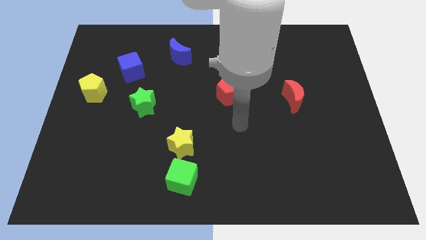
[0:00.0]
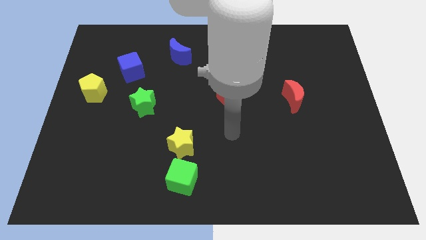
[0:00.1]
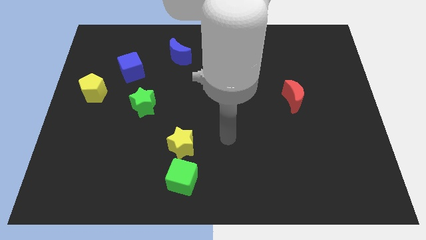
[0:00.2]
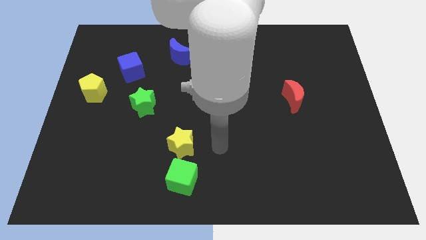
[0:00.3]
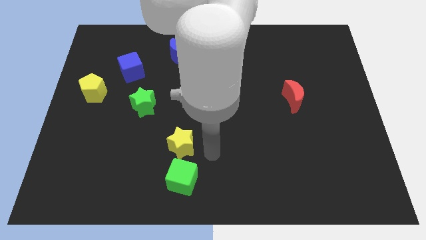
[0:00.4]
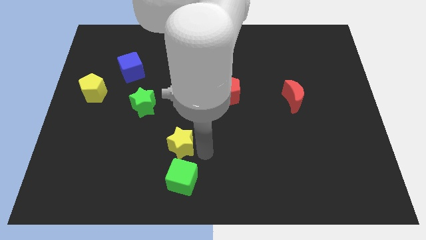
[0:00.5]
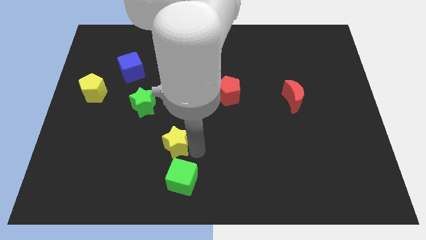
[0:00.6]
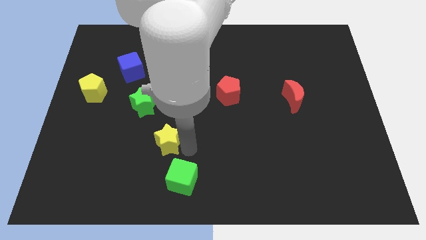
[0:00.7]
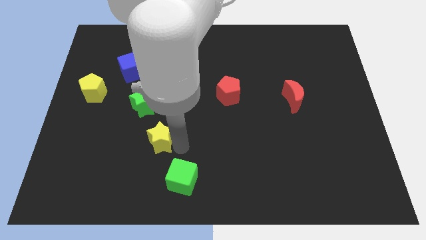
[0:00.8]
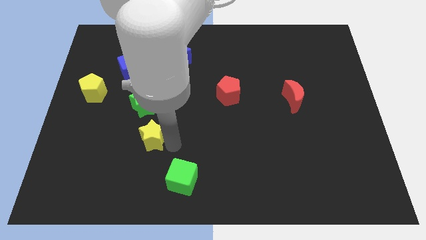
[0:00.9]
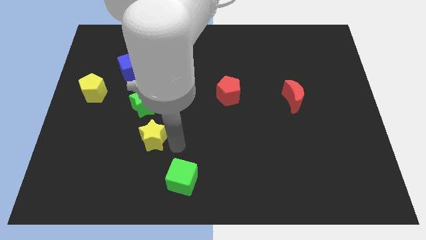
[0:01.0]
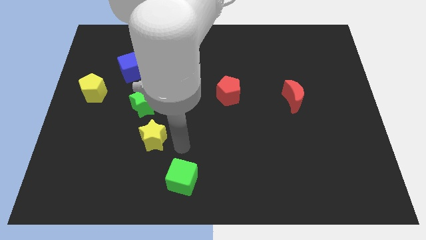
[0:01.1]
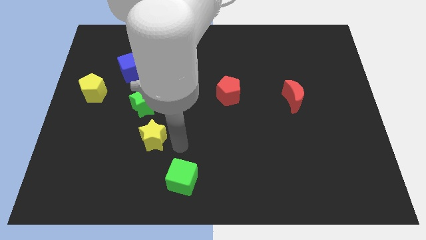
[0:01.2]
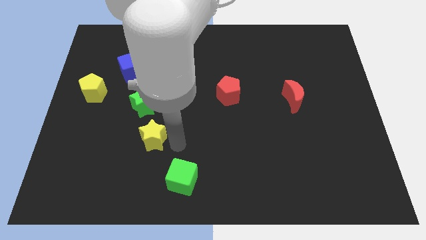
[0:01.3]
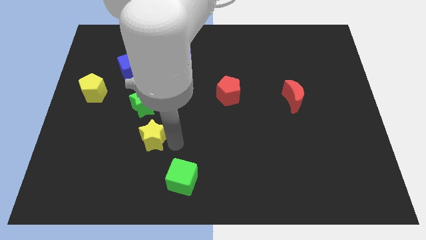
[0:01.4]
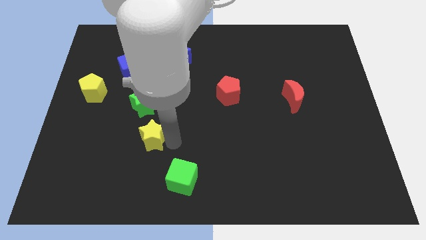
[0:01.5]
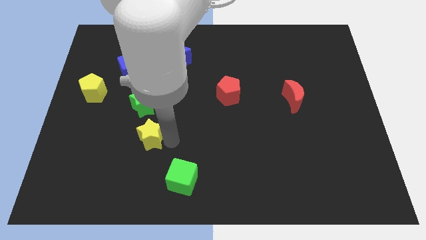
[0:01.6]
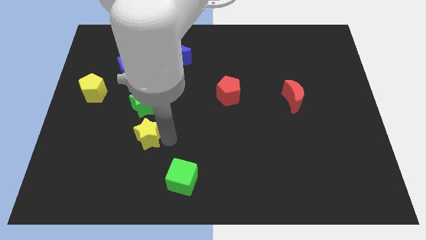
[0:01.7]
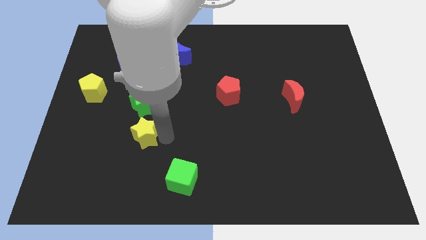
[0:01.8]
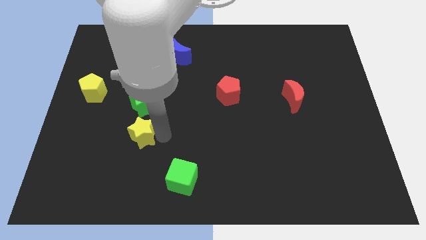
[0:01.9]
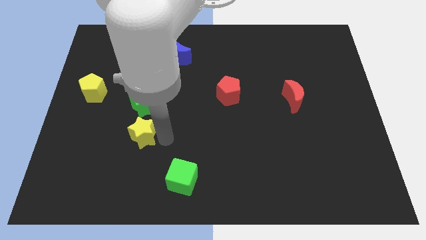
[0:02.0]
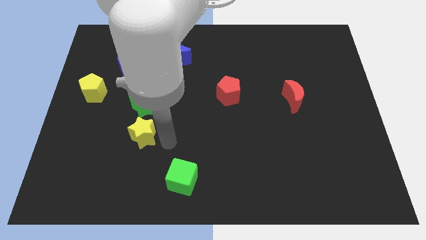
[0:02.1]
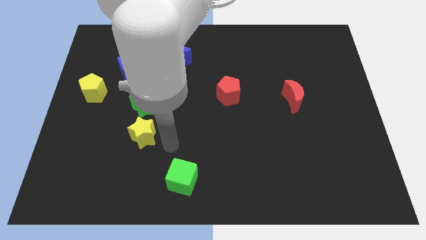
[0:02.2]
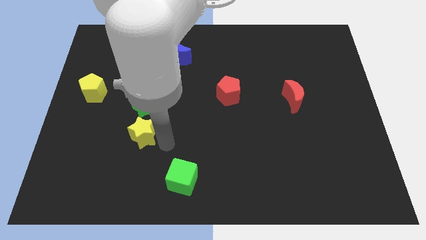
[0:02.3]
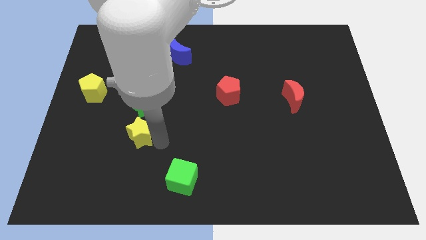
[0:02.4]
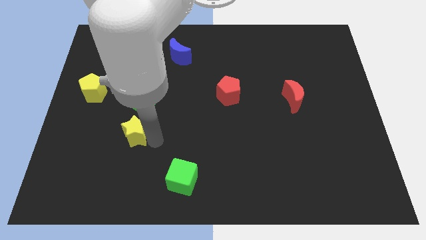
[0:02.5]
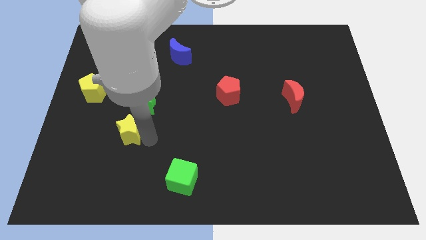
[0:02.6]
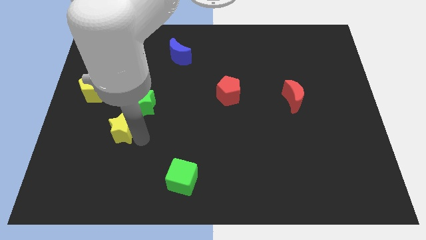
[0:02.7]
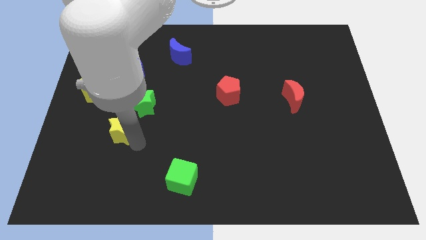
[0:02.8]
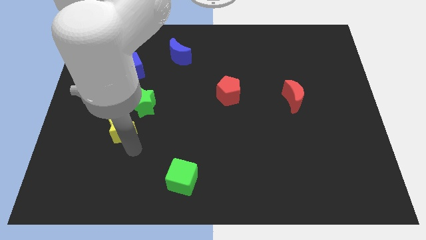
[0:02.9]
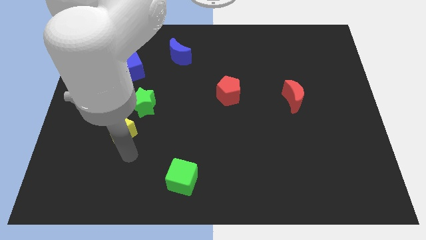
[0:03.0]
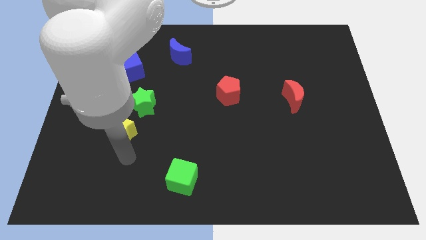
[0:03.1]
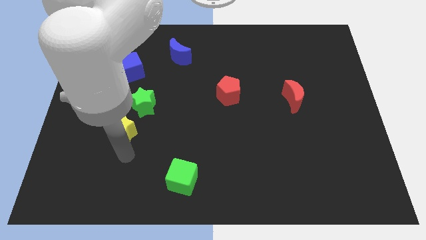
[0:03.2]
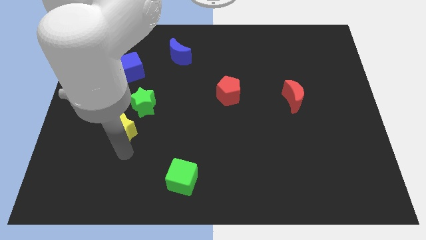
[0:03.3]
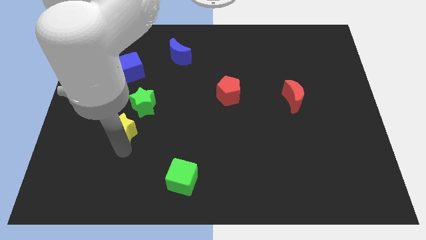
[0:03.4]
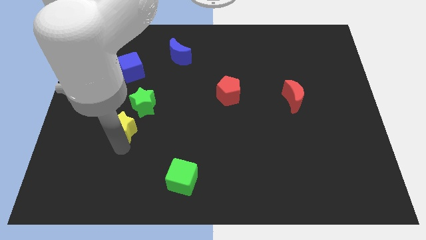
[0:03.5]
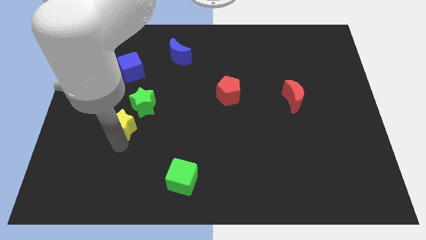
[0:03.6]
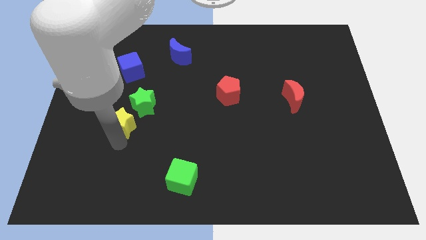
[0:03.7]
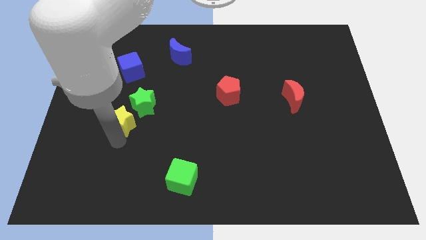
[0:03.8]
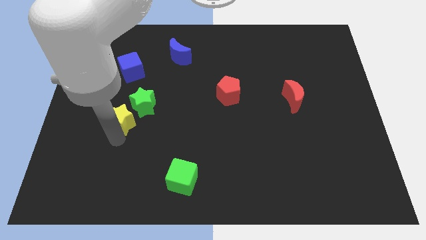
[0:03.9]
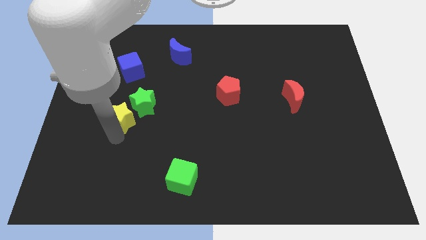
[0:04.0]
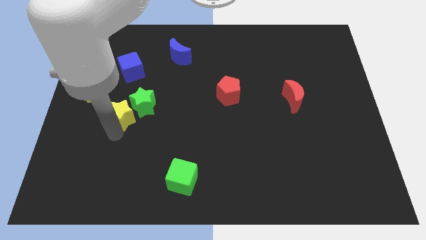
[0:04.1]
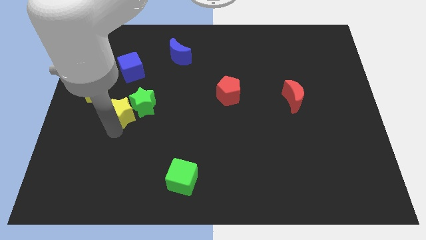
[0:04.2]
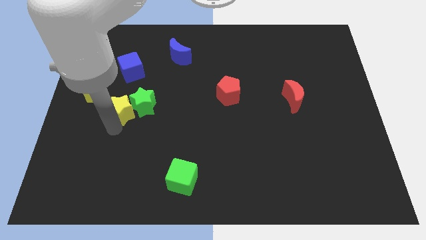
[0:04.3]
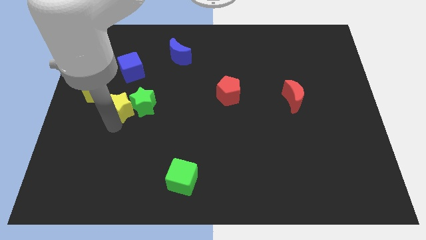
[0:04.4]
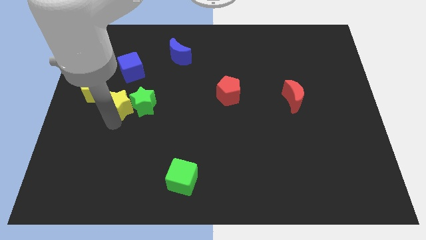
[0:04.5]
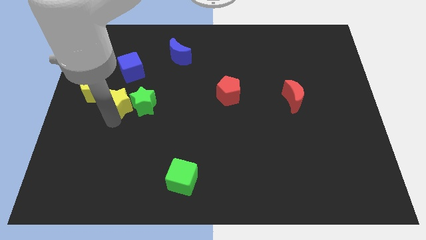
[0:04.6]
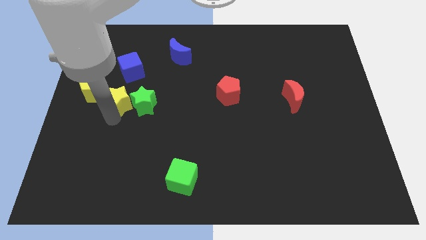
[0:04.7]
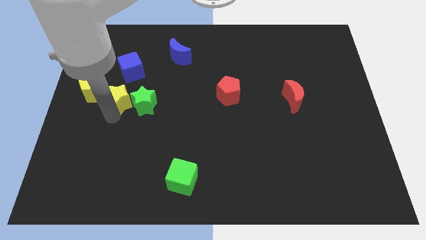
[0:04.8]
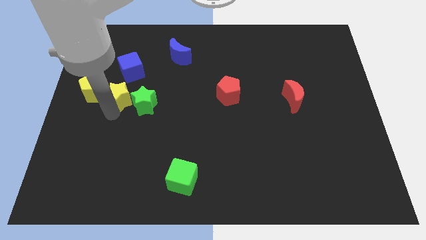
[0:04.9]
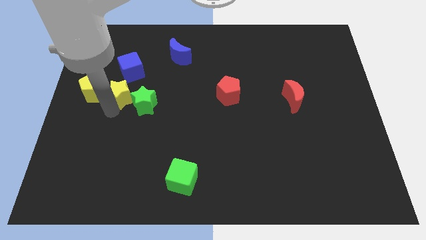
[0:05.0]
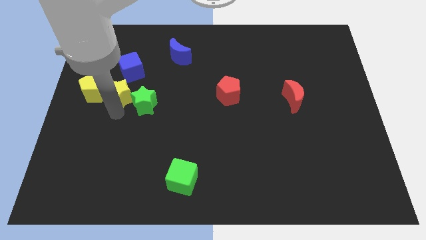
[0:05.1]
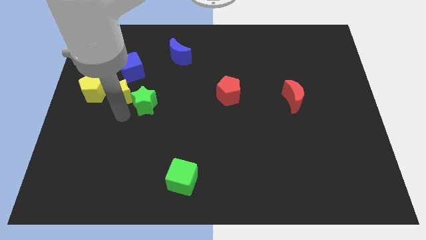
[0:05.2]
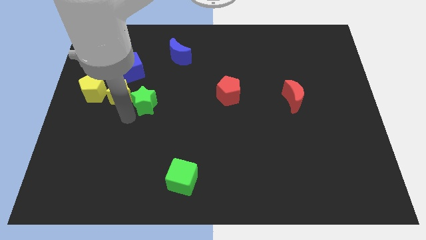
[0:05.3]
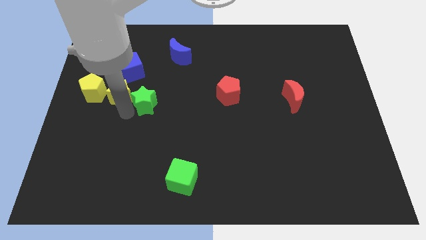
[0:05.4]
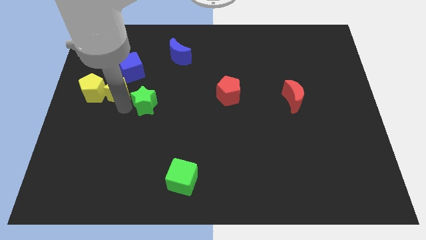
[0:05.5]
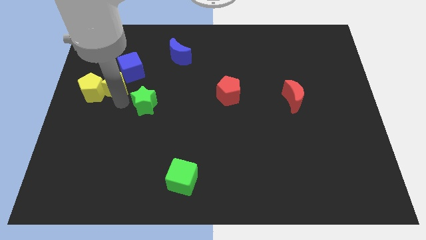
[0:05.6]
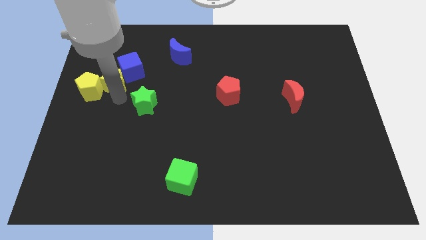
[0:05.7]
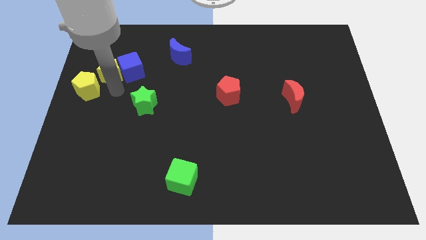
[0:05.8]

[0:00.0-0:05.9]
put the yellow star to the top of the yellow pentagon

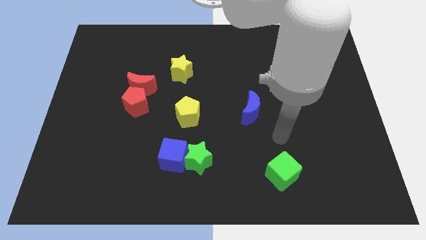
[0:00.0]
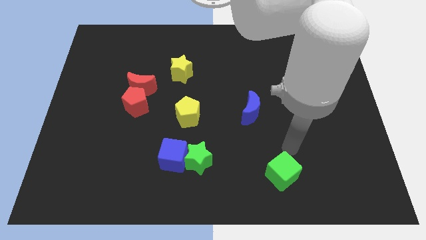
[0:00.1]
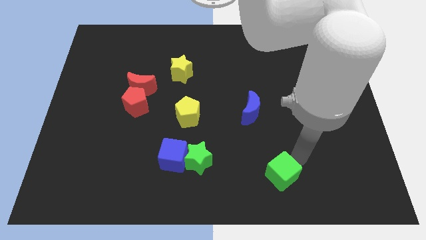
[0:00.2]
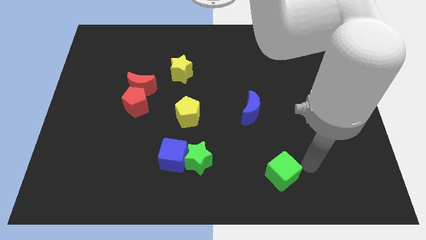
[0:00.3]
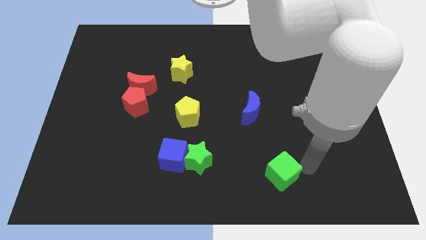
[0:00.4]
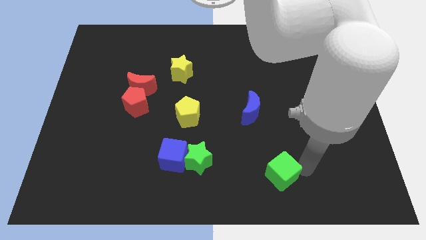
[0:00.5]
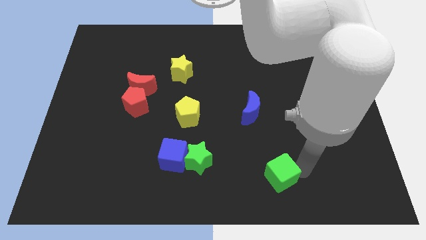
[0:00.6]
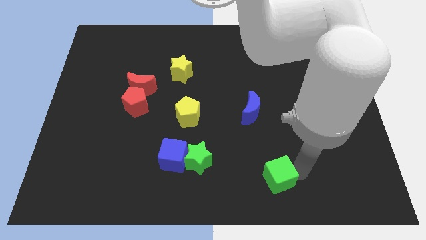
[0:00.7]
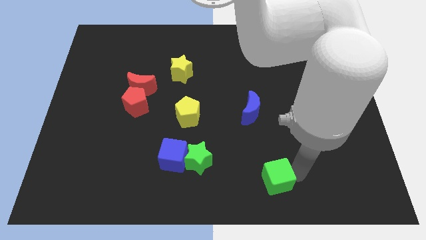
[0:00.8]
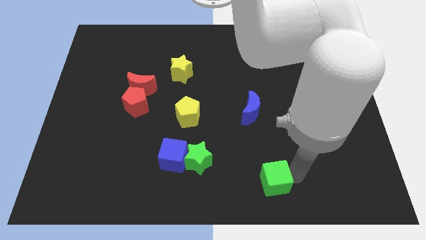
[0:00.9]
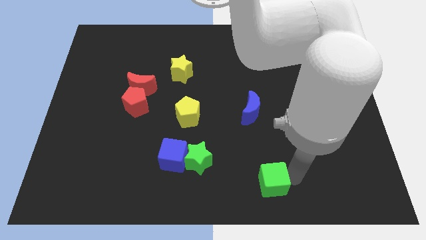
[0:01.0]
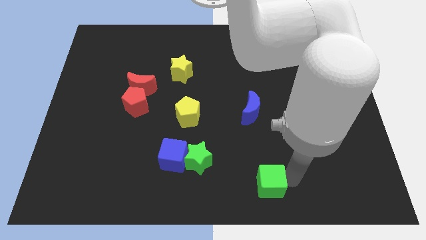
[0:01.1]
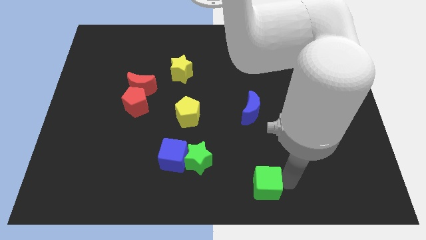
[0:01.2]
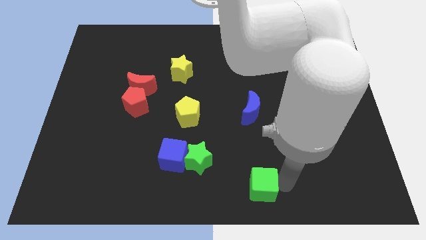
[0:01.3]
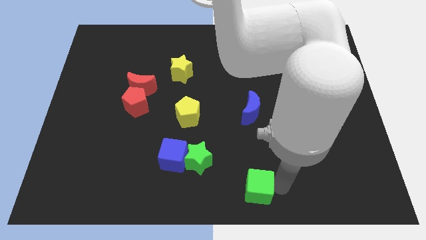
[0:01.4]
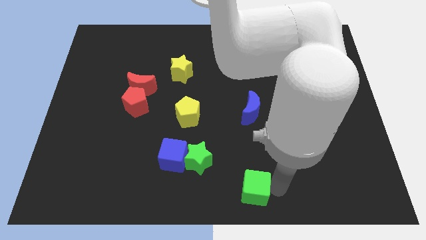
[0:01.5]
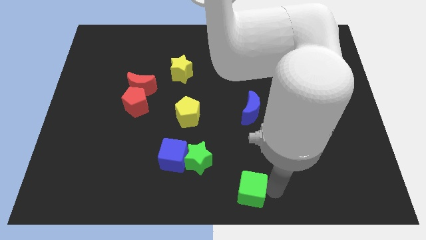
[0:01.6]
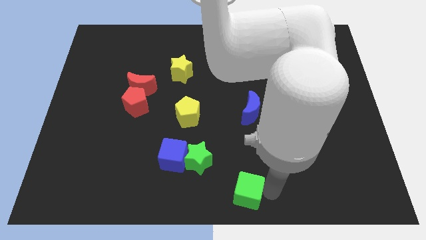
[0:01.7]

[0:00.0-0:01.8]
slide the green cube diagonally down and to the right of the green star
